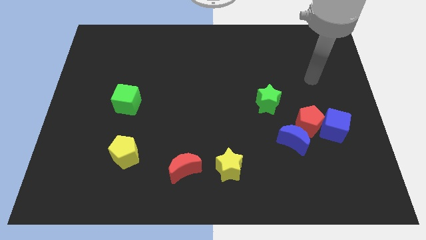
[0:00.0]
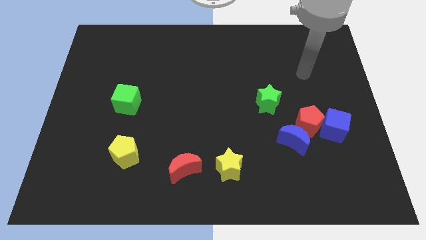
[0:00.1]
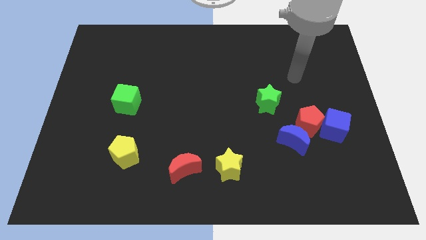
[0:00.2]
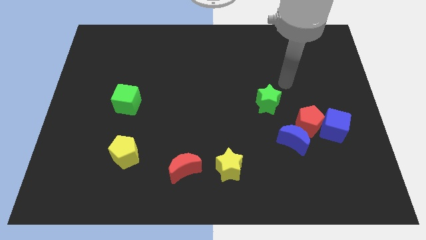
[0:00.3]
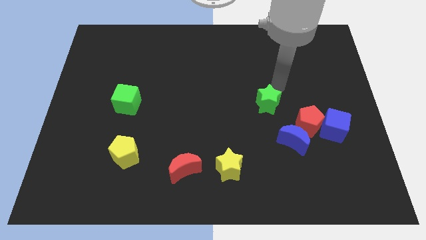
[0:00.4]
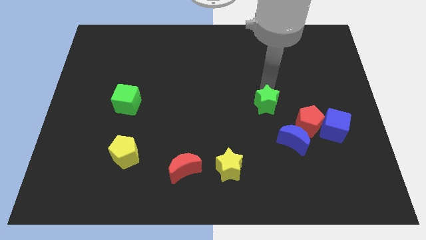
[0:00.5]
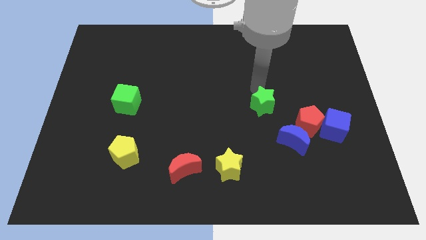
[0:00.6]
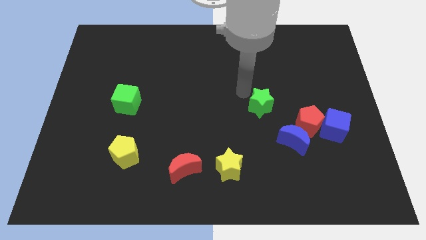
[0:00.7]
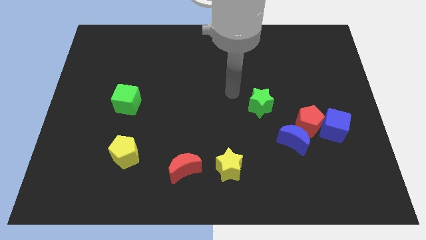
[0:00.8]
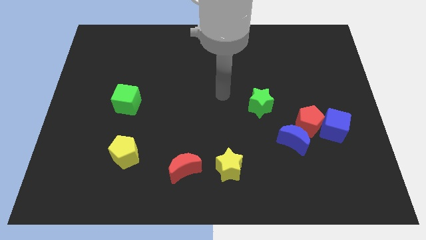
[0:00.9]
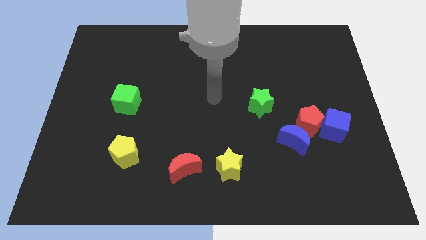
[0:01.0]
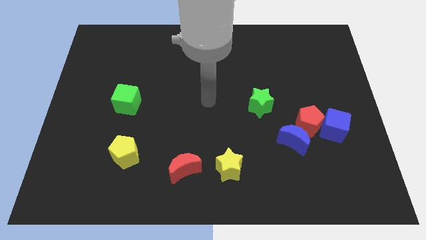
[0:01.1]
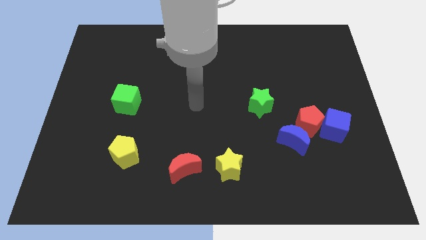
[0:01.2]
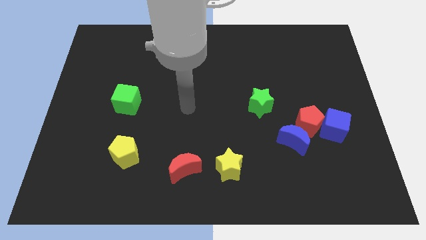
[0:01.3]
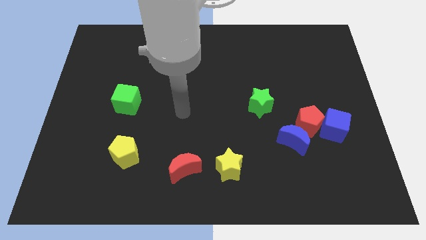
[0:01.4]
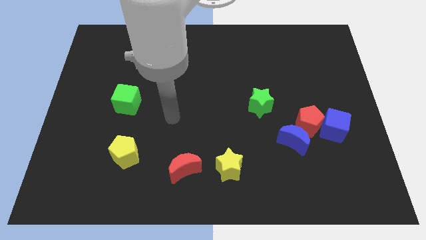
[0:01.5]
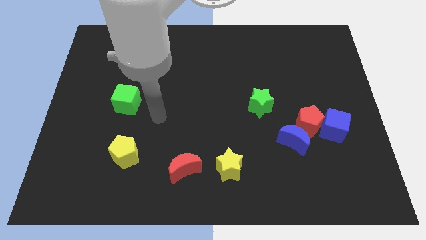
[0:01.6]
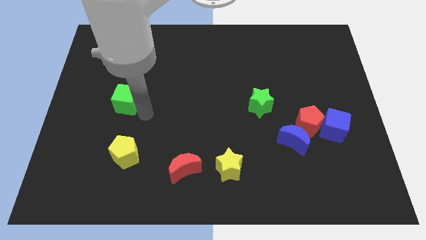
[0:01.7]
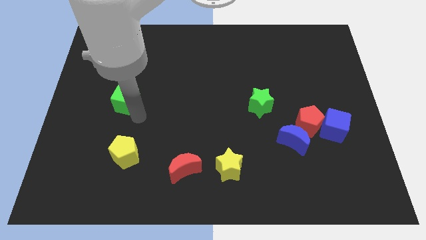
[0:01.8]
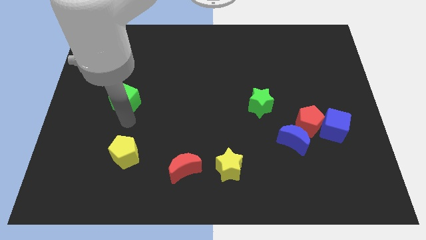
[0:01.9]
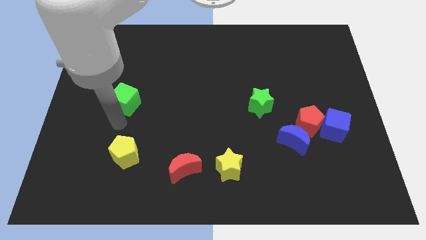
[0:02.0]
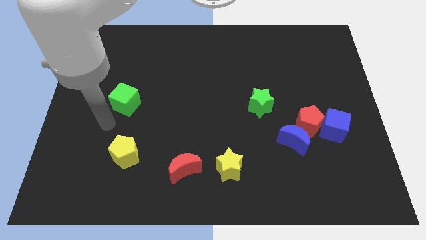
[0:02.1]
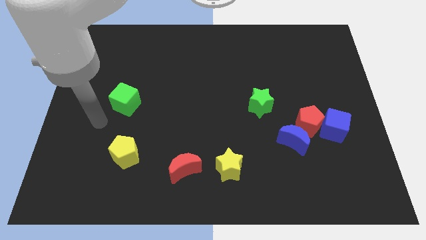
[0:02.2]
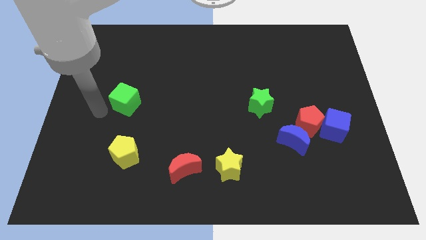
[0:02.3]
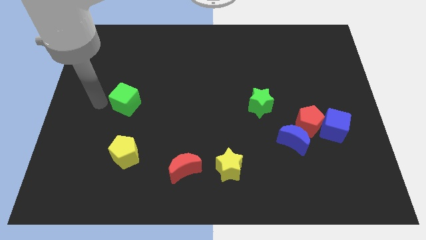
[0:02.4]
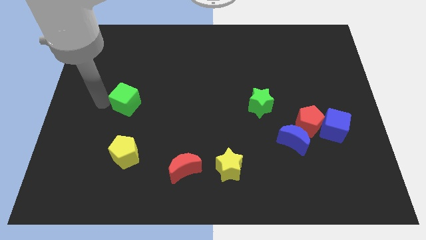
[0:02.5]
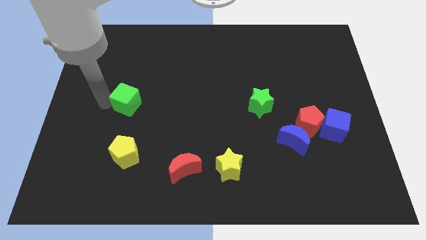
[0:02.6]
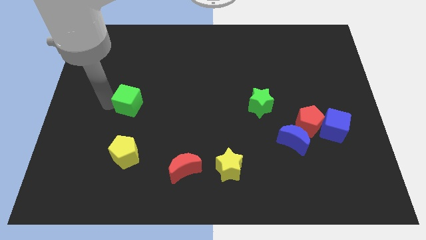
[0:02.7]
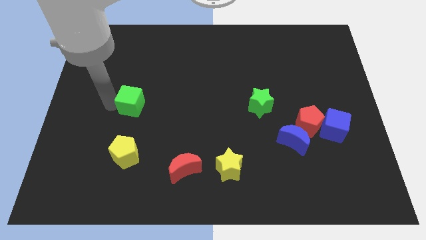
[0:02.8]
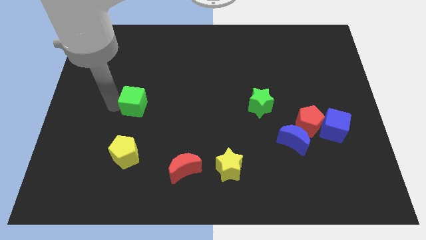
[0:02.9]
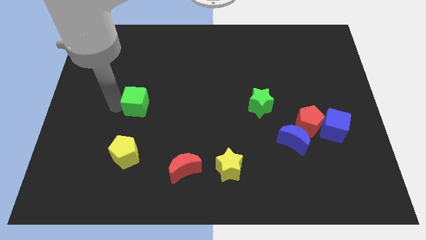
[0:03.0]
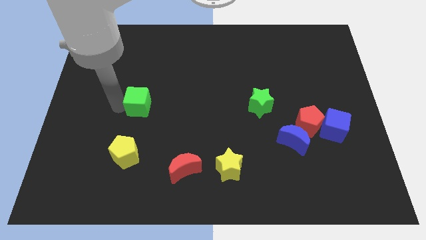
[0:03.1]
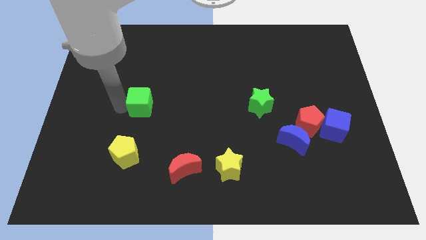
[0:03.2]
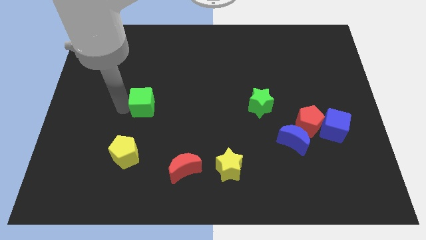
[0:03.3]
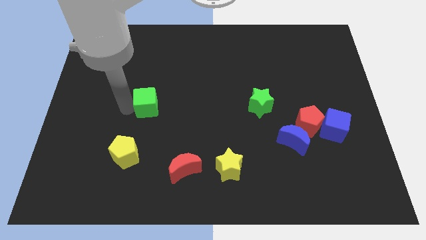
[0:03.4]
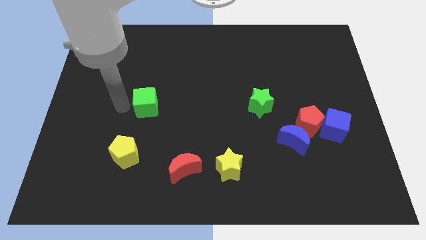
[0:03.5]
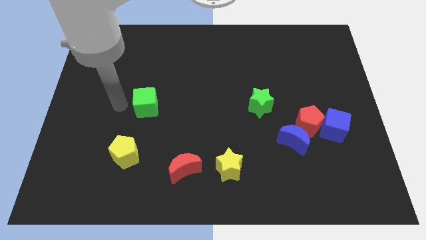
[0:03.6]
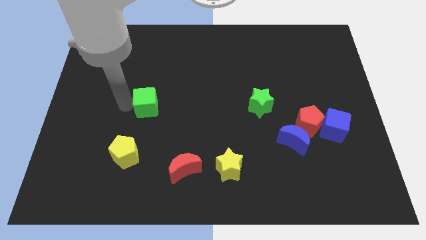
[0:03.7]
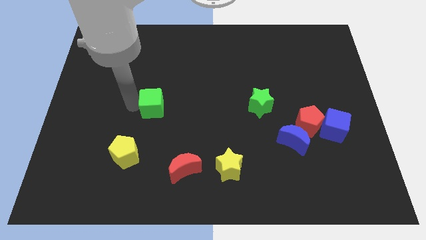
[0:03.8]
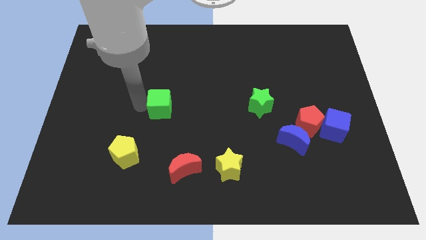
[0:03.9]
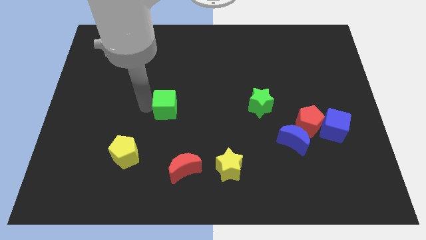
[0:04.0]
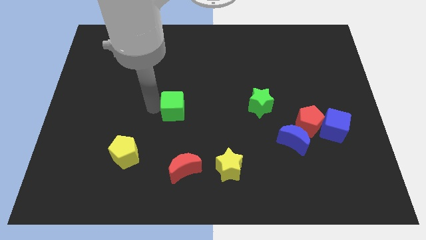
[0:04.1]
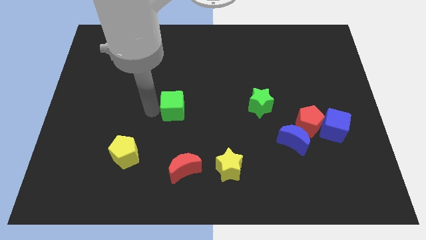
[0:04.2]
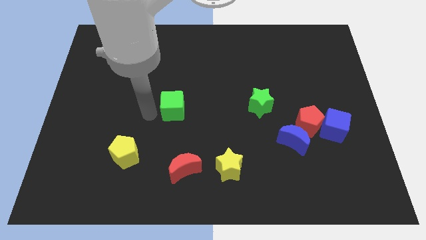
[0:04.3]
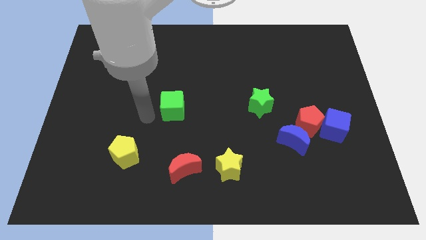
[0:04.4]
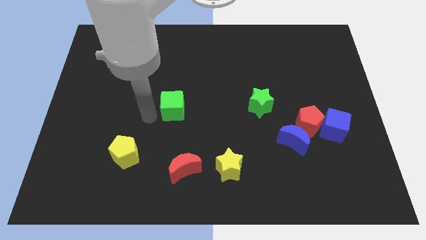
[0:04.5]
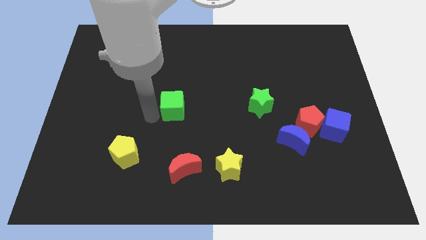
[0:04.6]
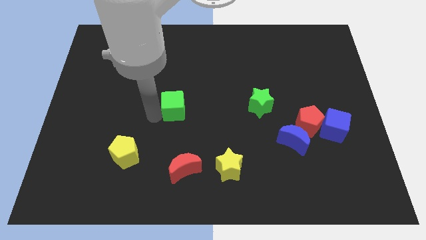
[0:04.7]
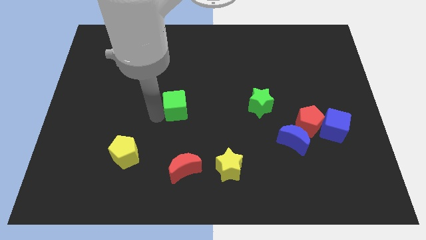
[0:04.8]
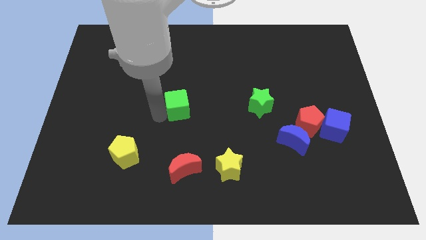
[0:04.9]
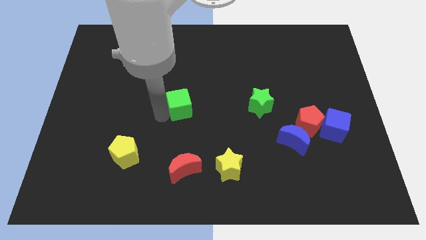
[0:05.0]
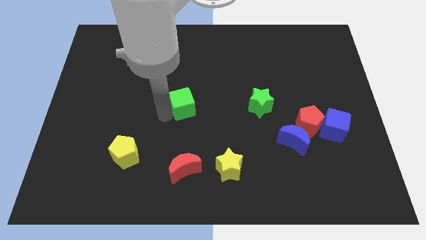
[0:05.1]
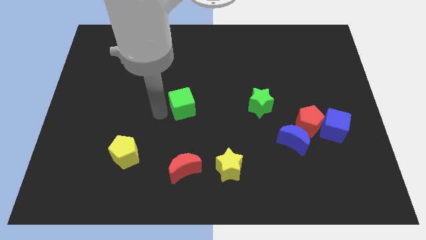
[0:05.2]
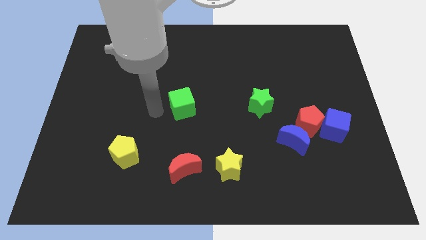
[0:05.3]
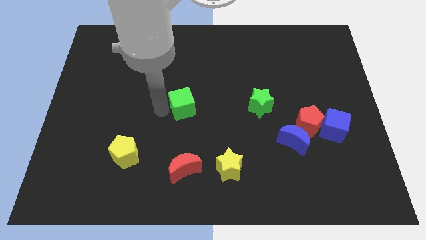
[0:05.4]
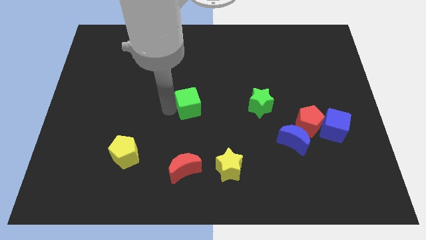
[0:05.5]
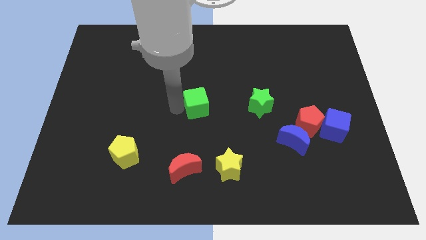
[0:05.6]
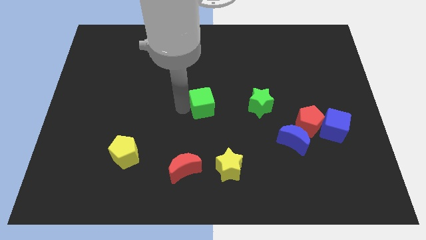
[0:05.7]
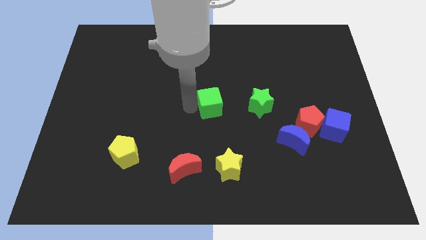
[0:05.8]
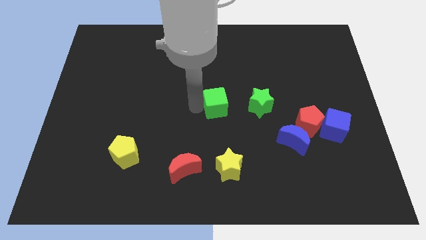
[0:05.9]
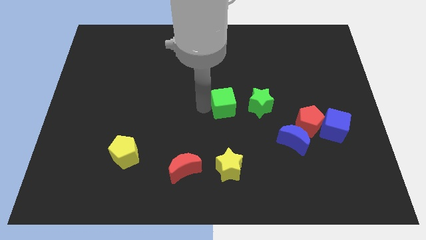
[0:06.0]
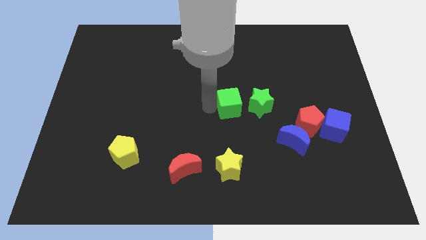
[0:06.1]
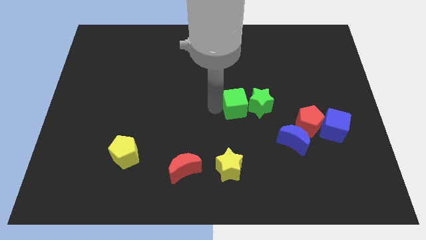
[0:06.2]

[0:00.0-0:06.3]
move the green cube next to the green star

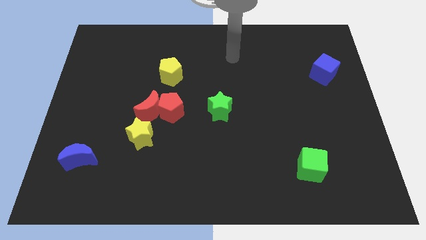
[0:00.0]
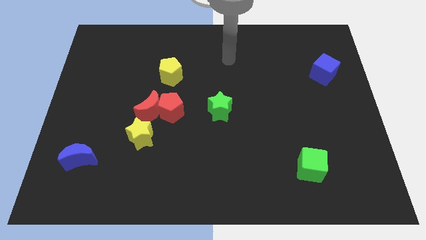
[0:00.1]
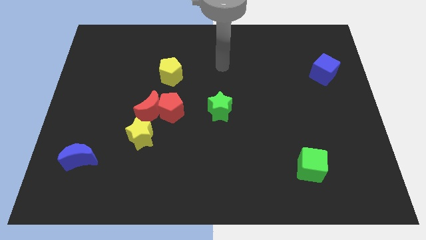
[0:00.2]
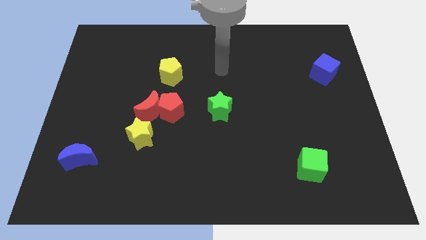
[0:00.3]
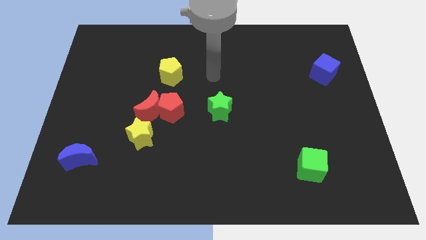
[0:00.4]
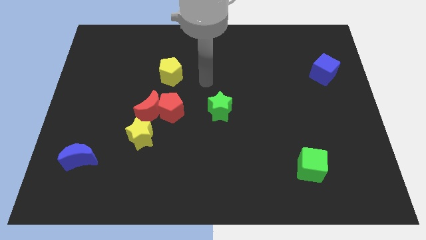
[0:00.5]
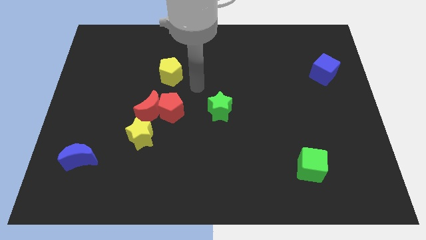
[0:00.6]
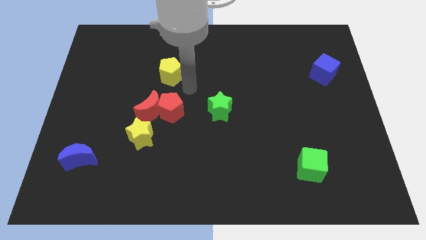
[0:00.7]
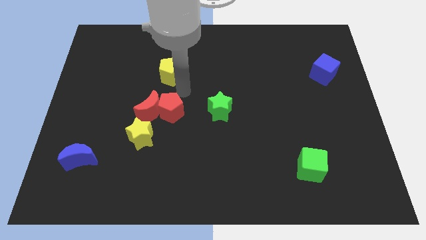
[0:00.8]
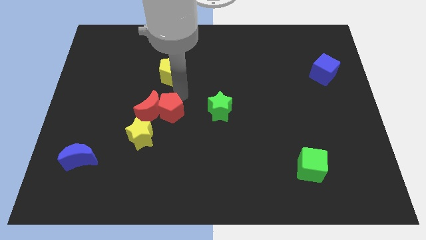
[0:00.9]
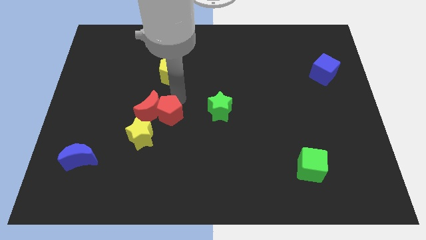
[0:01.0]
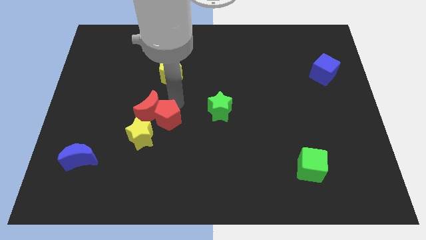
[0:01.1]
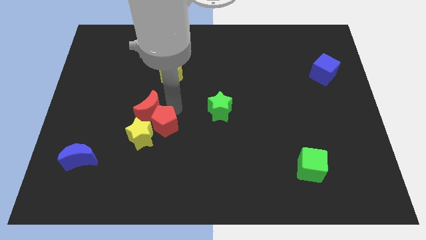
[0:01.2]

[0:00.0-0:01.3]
put the red pentagon towards the yellow star
